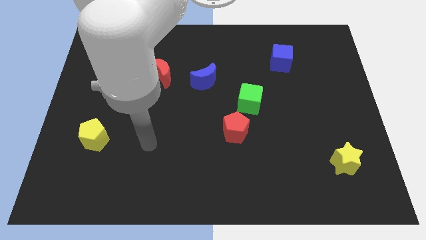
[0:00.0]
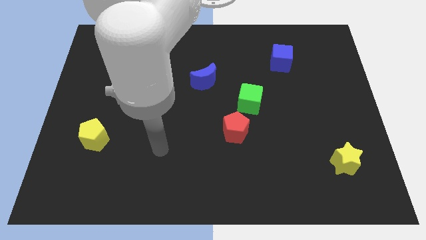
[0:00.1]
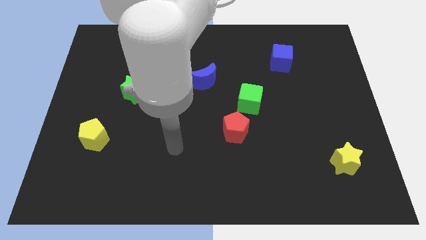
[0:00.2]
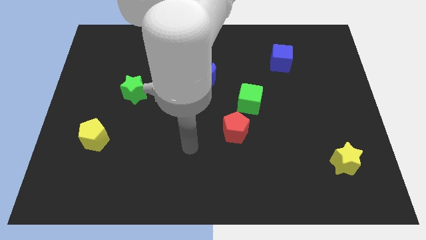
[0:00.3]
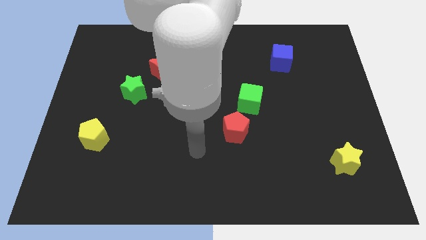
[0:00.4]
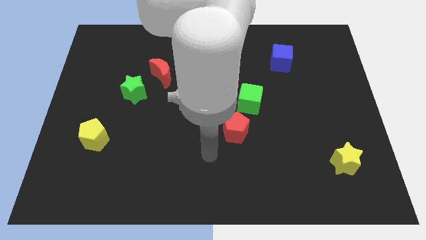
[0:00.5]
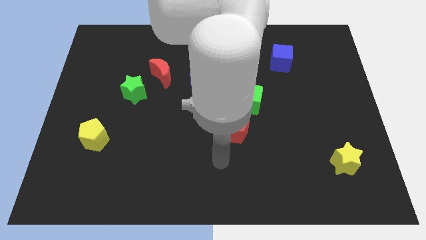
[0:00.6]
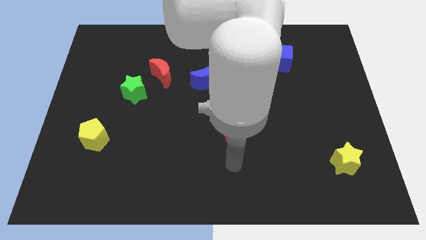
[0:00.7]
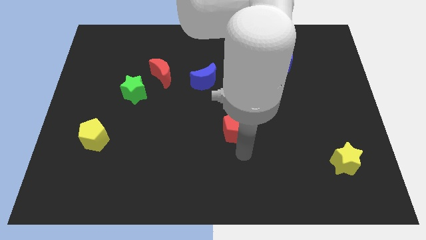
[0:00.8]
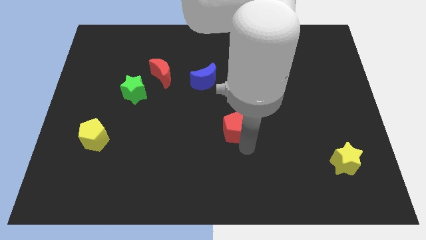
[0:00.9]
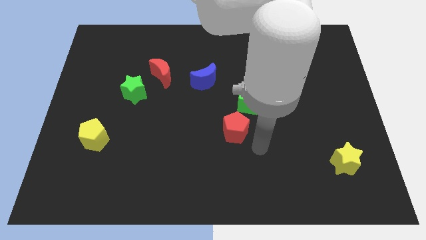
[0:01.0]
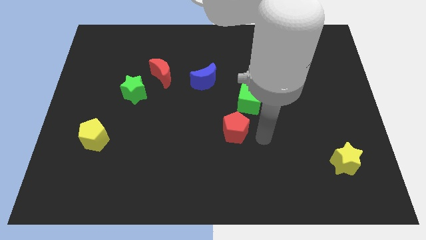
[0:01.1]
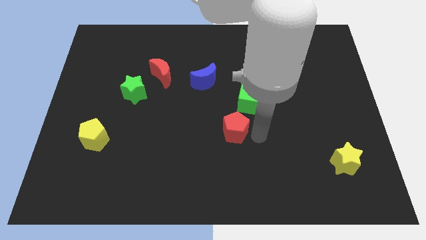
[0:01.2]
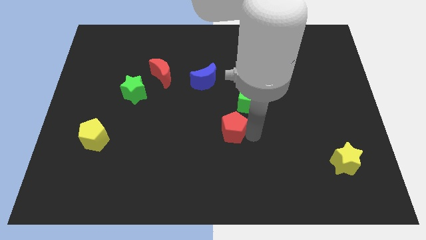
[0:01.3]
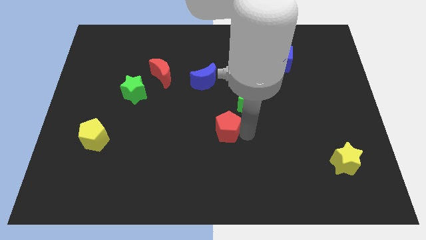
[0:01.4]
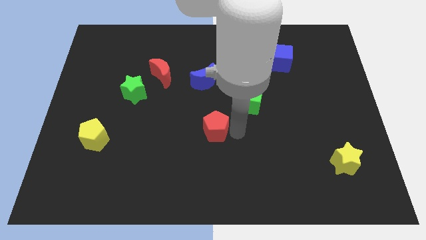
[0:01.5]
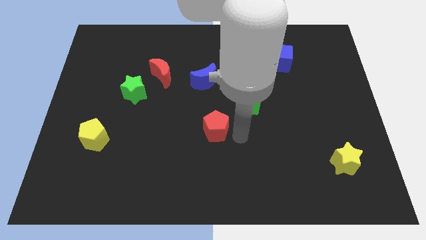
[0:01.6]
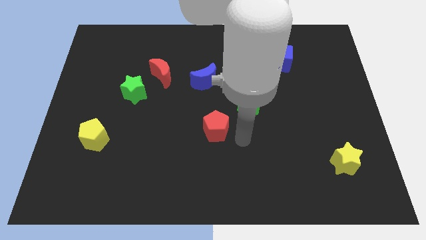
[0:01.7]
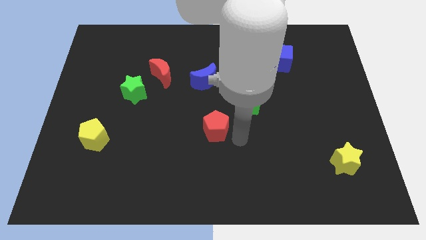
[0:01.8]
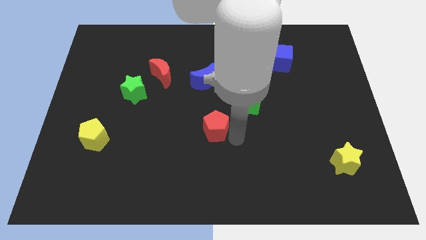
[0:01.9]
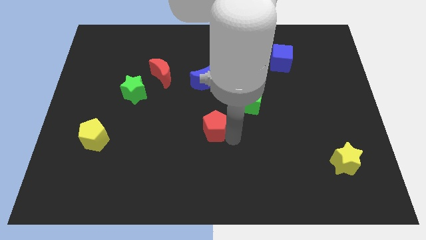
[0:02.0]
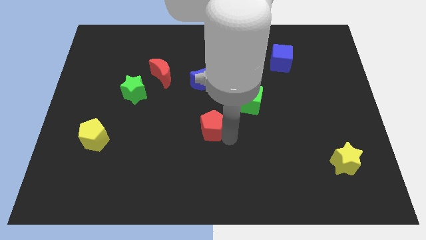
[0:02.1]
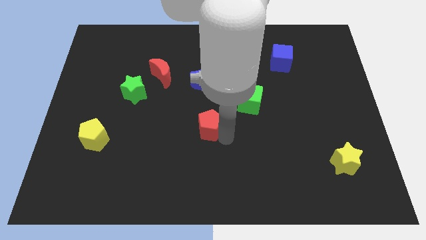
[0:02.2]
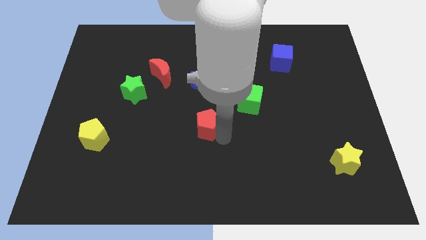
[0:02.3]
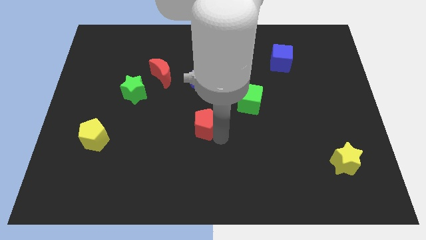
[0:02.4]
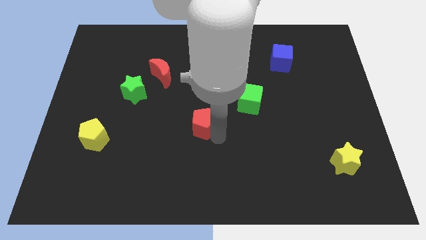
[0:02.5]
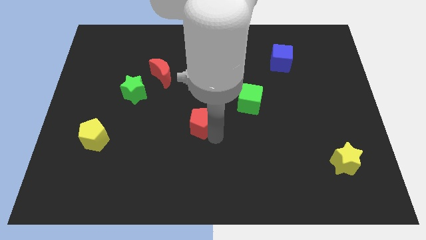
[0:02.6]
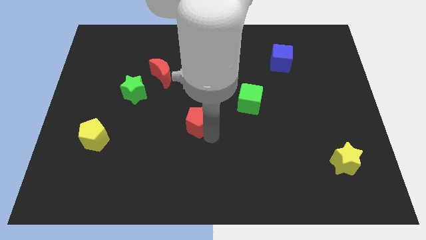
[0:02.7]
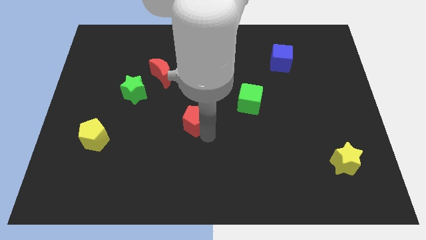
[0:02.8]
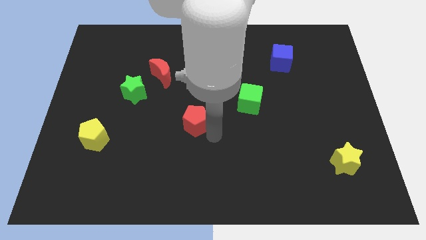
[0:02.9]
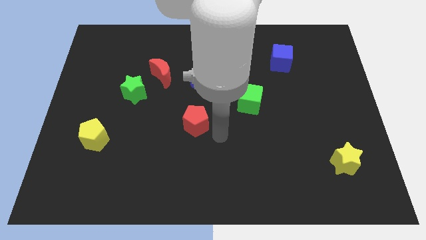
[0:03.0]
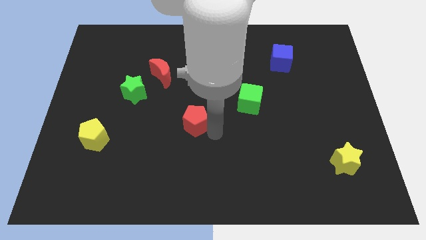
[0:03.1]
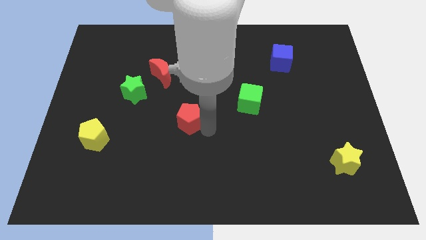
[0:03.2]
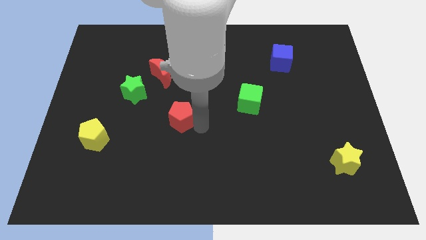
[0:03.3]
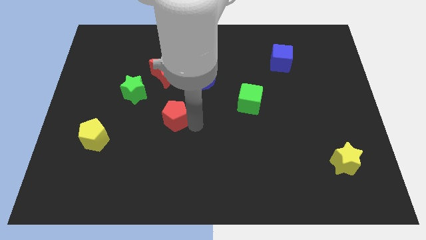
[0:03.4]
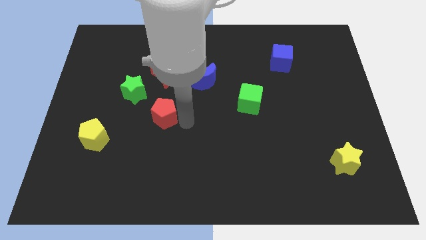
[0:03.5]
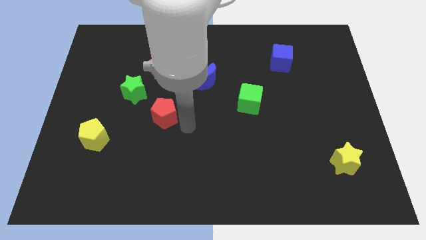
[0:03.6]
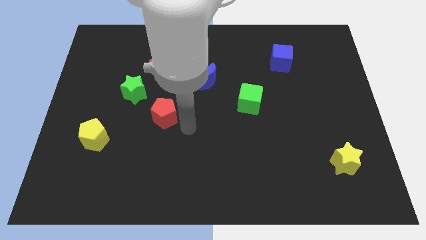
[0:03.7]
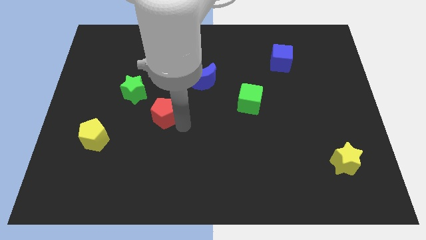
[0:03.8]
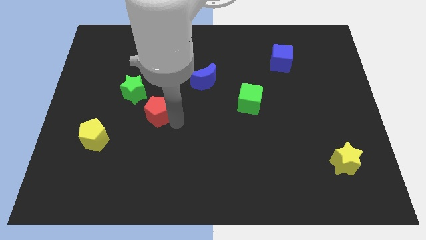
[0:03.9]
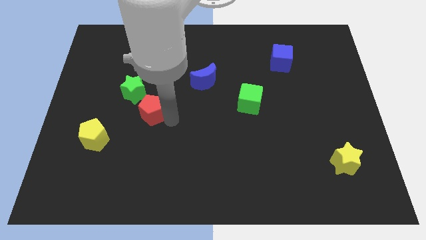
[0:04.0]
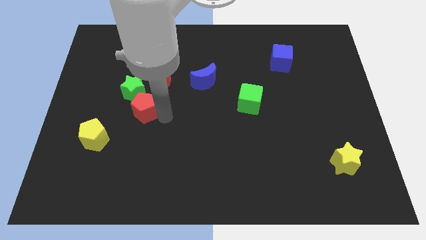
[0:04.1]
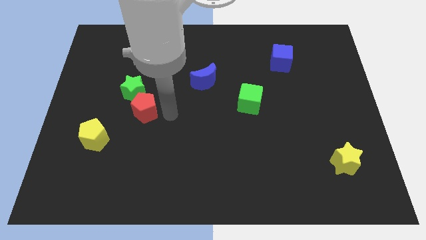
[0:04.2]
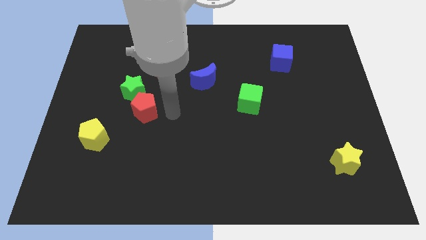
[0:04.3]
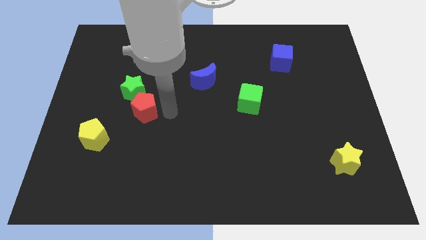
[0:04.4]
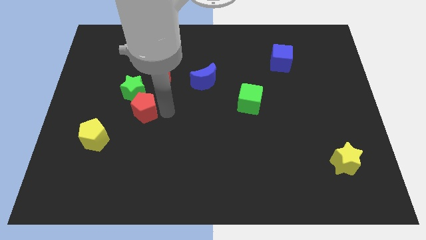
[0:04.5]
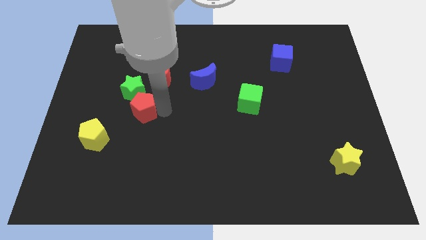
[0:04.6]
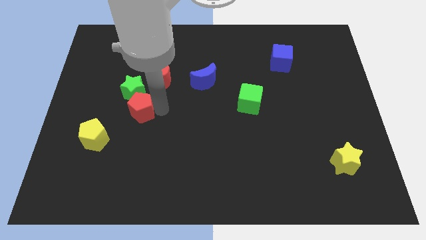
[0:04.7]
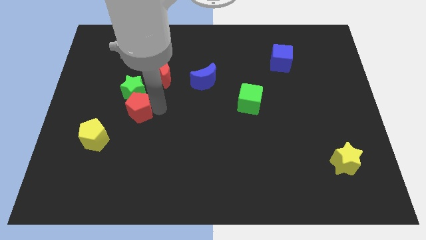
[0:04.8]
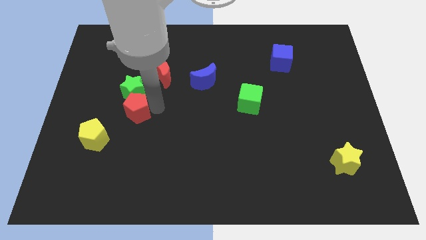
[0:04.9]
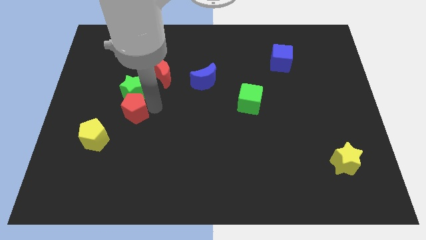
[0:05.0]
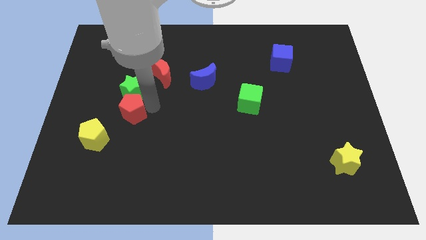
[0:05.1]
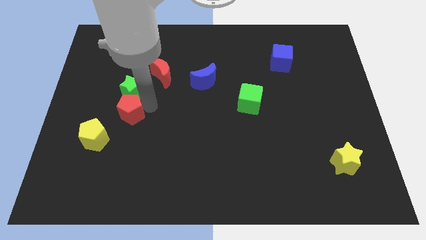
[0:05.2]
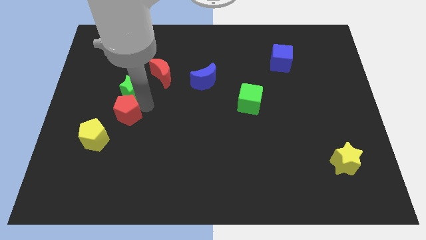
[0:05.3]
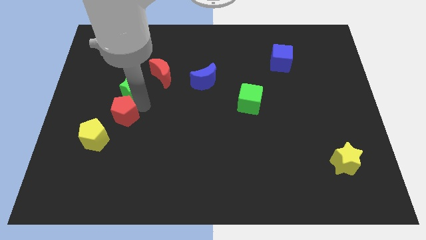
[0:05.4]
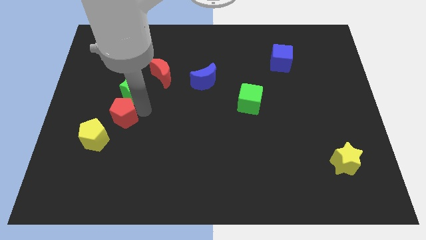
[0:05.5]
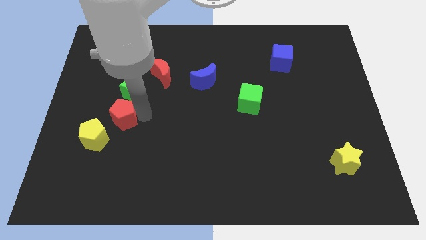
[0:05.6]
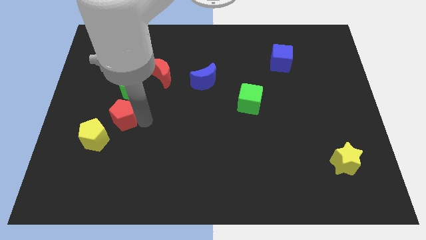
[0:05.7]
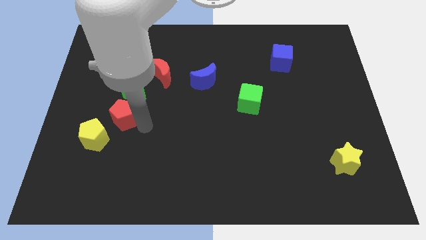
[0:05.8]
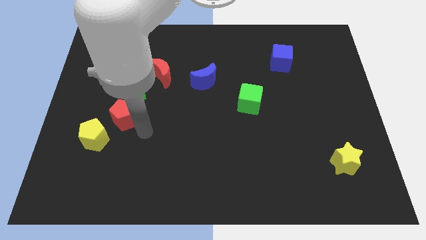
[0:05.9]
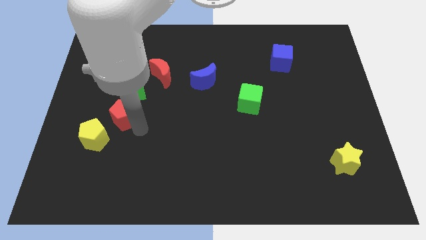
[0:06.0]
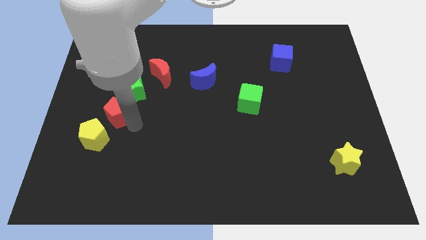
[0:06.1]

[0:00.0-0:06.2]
slide the red pentagon to the top of the yellow pentagon

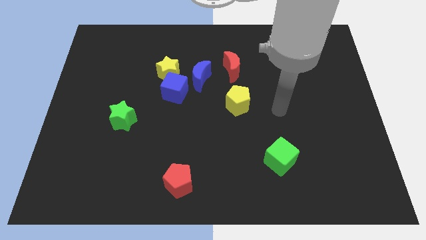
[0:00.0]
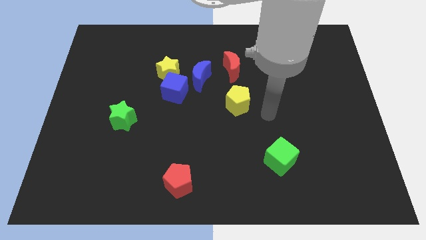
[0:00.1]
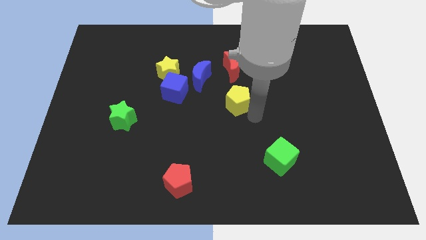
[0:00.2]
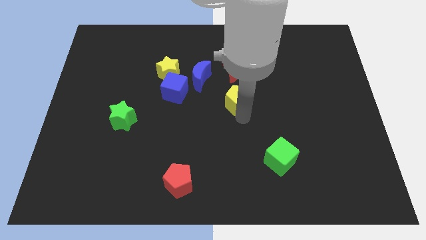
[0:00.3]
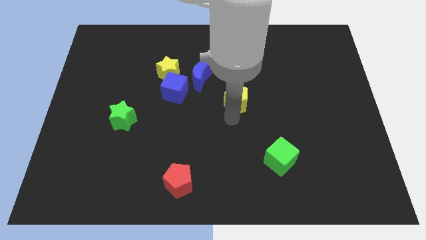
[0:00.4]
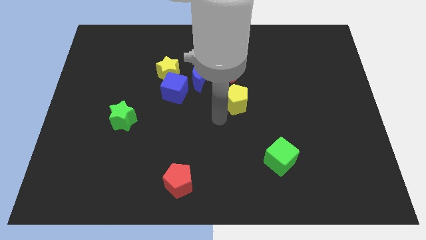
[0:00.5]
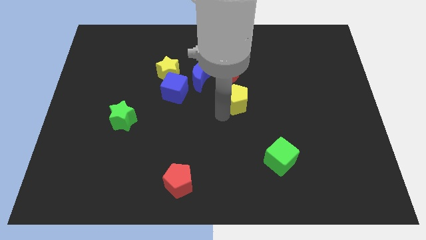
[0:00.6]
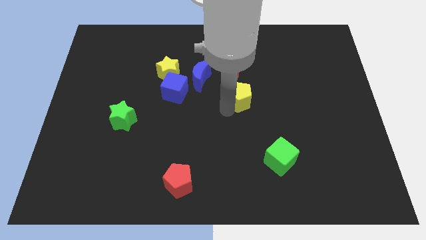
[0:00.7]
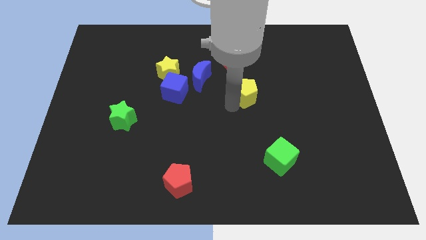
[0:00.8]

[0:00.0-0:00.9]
slide the yellow pentagon diagonally down and to the right of the red moon

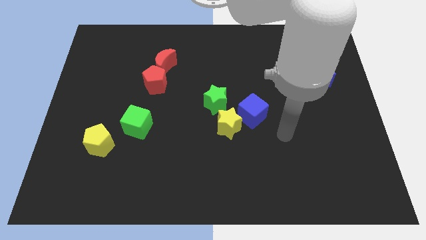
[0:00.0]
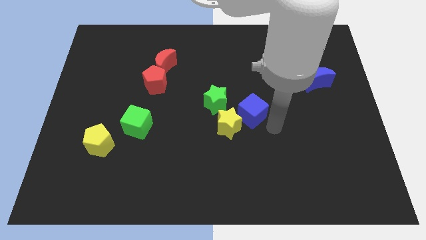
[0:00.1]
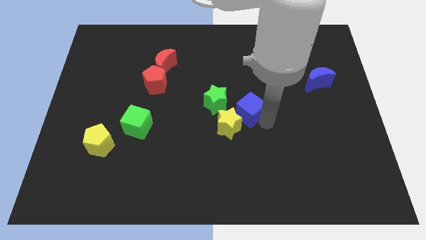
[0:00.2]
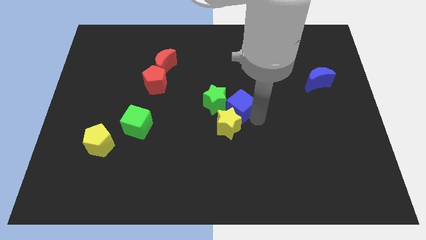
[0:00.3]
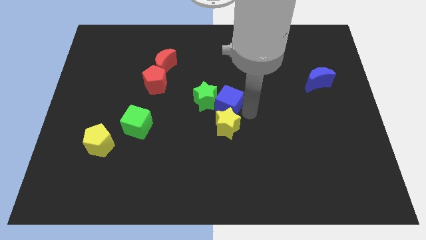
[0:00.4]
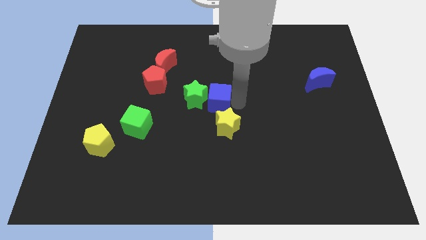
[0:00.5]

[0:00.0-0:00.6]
move the green star diagonally down and to the right of the red pentagon
